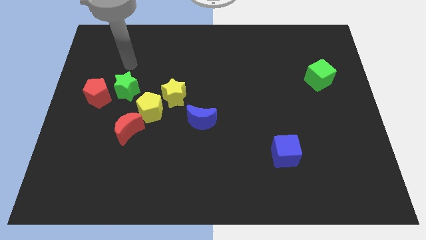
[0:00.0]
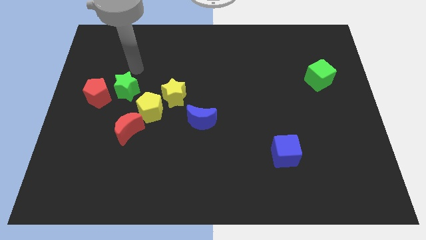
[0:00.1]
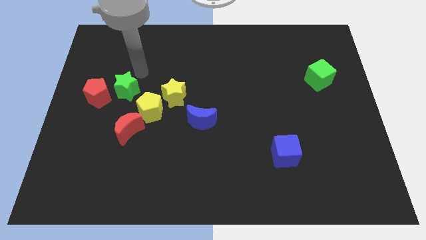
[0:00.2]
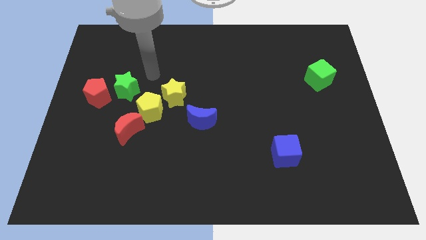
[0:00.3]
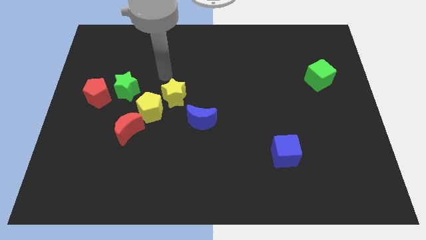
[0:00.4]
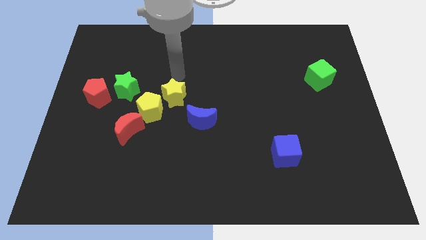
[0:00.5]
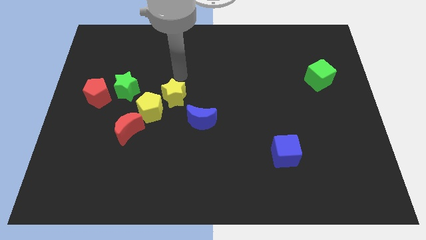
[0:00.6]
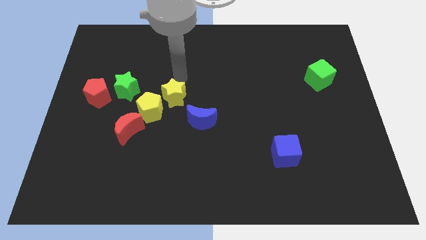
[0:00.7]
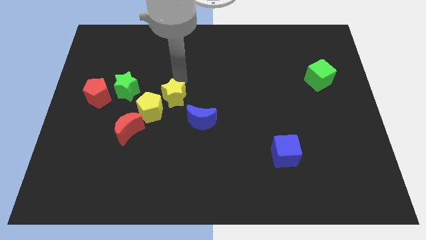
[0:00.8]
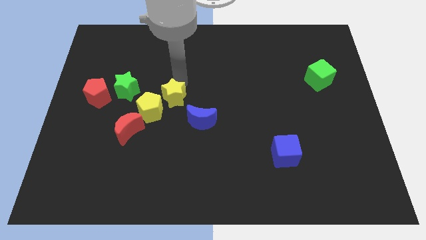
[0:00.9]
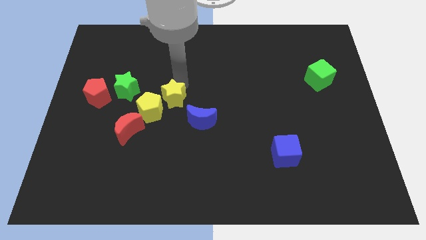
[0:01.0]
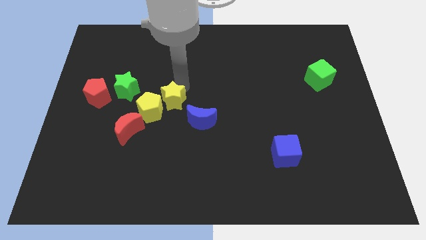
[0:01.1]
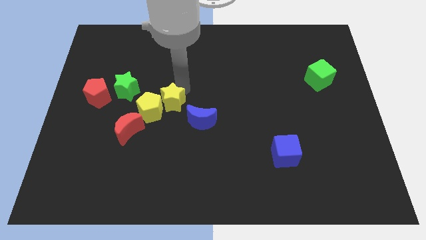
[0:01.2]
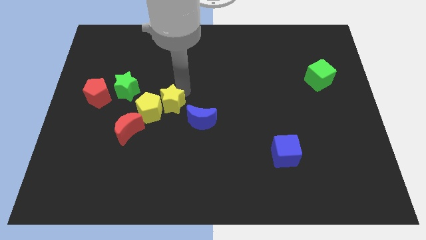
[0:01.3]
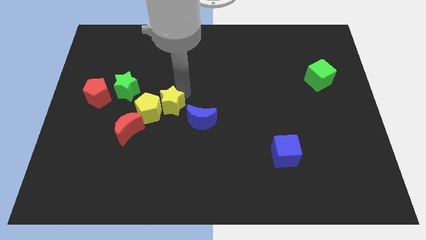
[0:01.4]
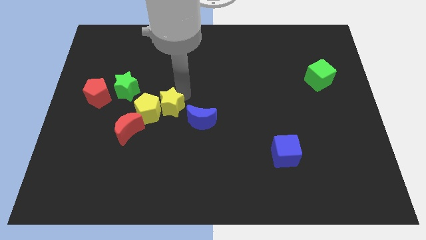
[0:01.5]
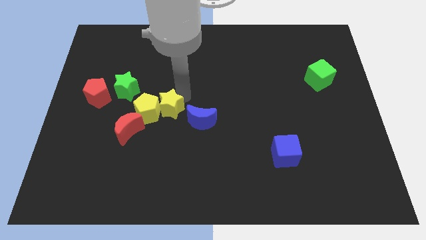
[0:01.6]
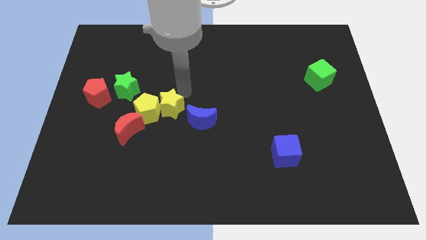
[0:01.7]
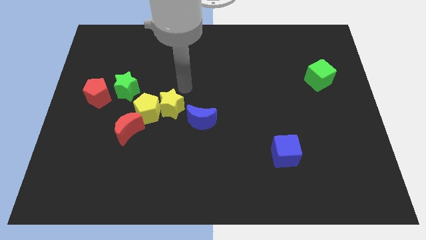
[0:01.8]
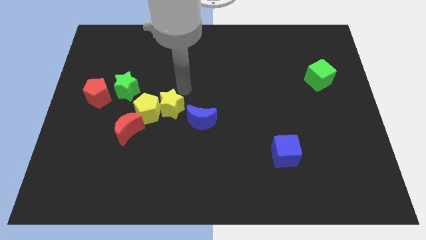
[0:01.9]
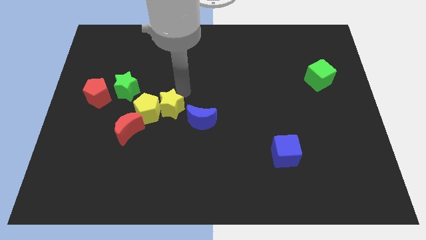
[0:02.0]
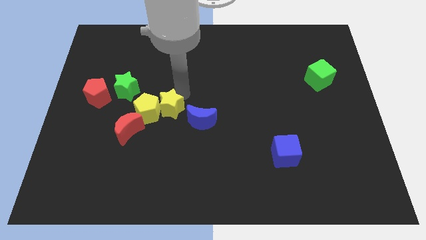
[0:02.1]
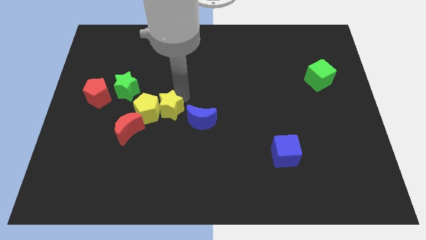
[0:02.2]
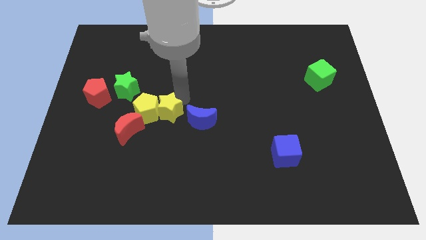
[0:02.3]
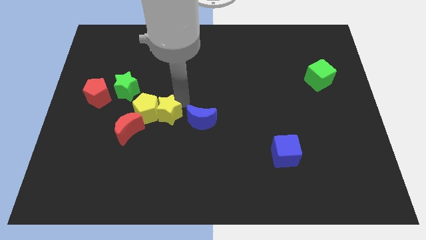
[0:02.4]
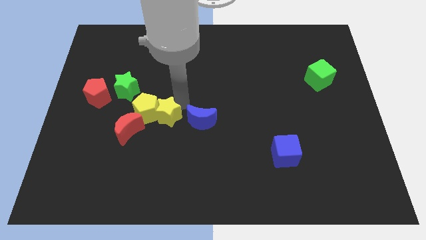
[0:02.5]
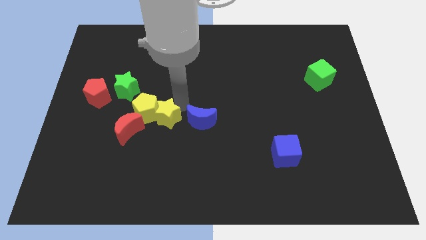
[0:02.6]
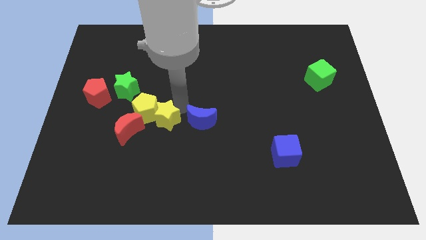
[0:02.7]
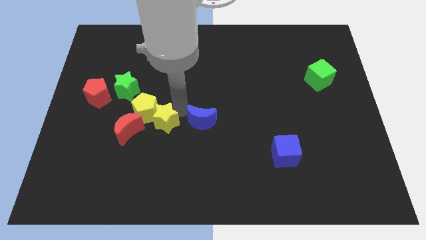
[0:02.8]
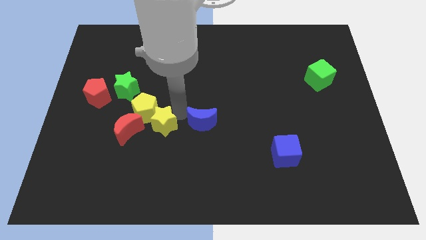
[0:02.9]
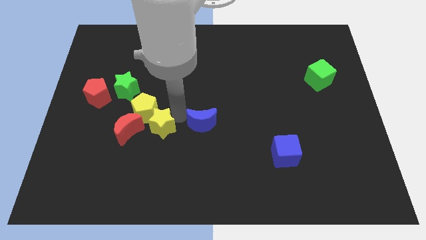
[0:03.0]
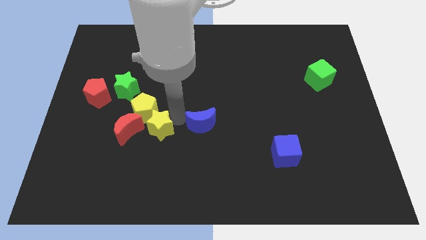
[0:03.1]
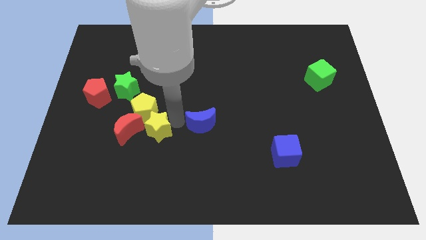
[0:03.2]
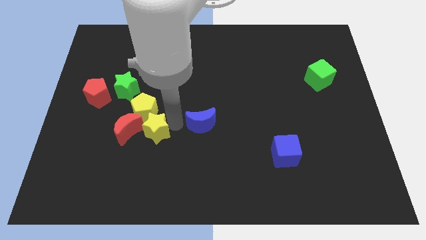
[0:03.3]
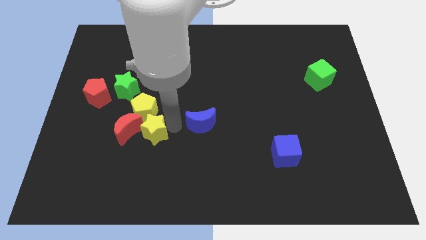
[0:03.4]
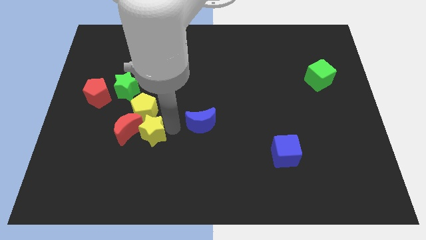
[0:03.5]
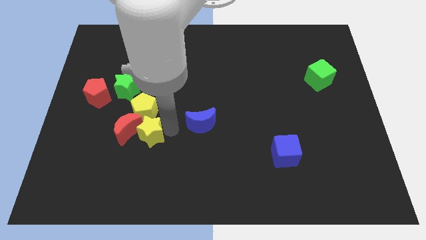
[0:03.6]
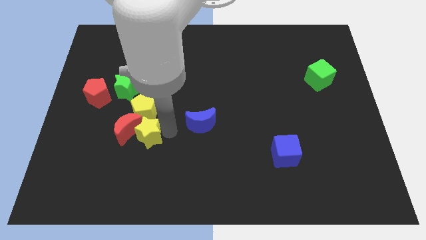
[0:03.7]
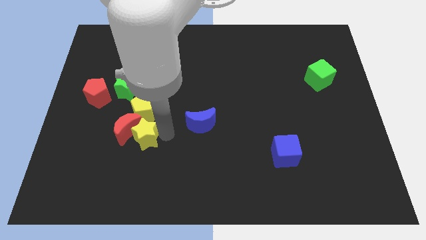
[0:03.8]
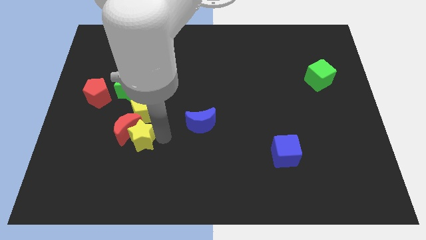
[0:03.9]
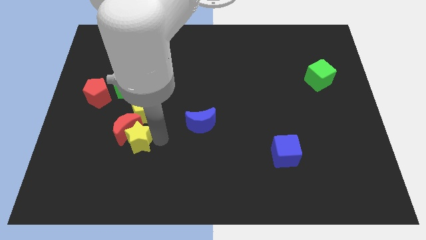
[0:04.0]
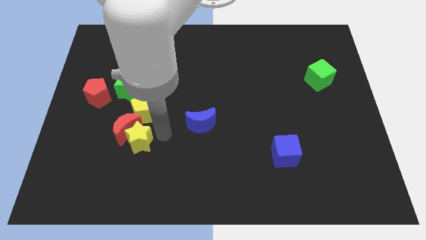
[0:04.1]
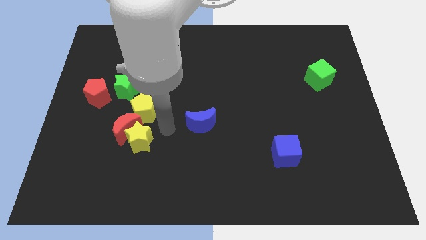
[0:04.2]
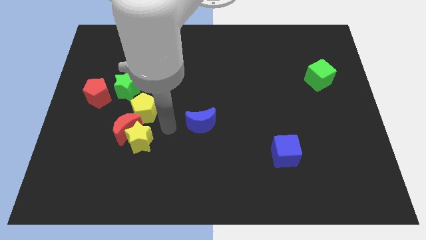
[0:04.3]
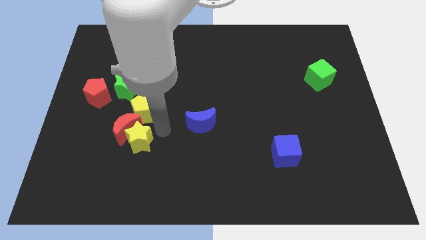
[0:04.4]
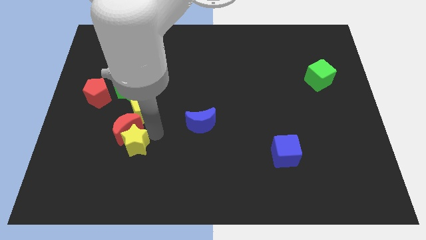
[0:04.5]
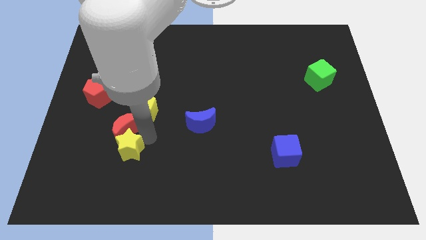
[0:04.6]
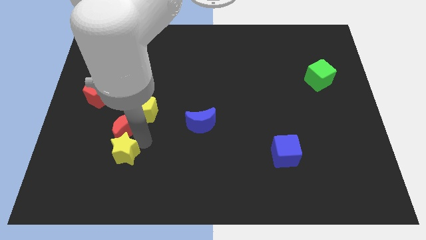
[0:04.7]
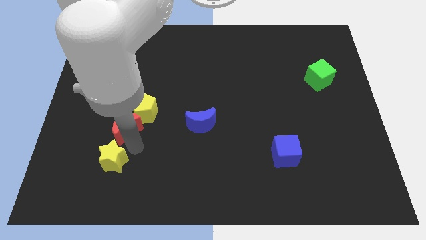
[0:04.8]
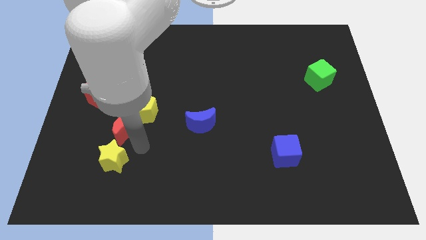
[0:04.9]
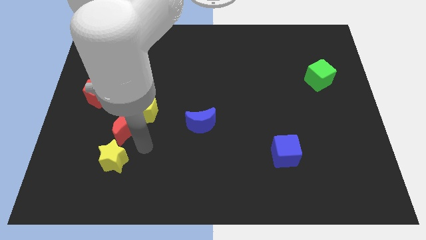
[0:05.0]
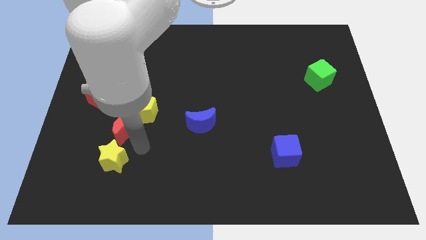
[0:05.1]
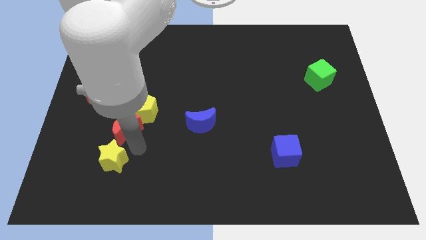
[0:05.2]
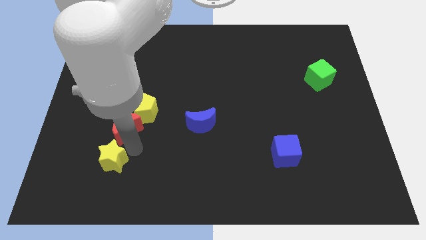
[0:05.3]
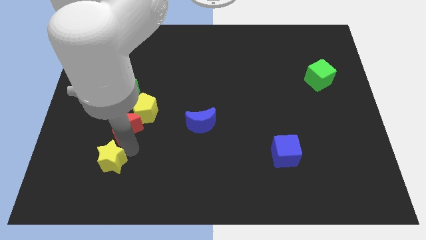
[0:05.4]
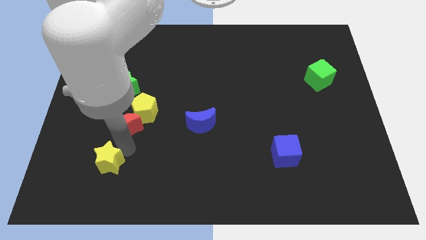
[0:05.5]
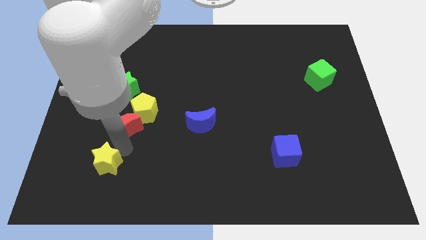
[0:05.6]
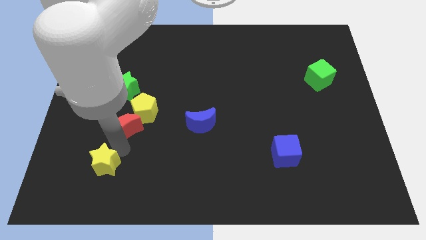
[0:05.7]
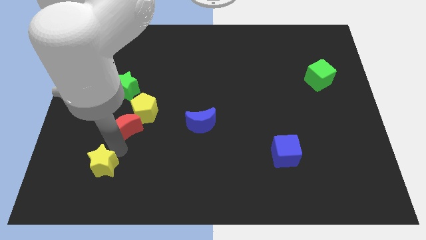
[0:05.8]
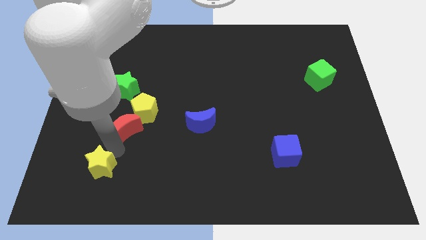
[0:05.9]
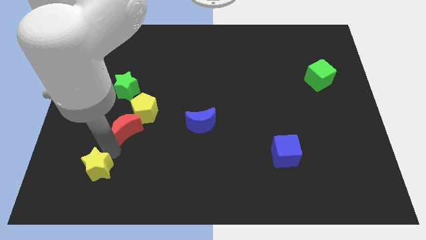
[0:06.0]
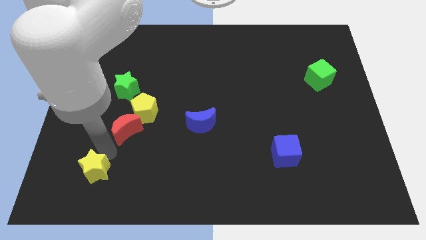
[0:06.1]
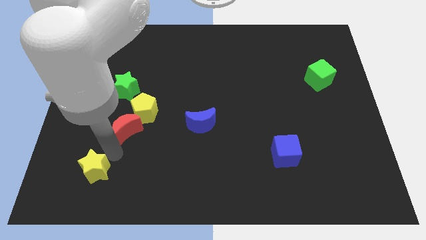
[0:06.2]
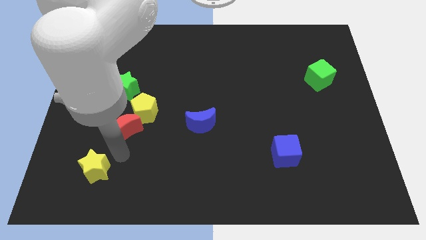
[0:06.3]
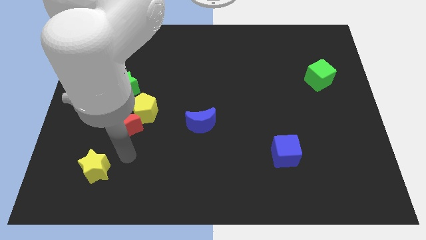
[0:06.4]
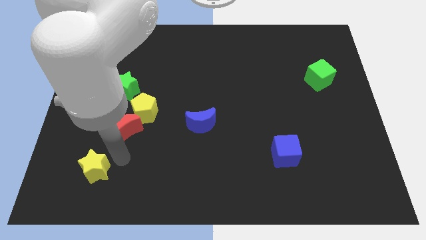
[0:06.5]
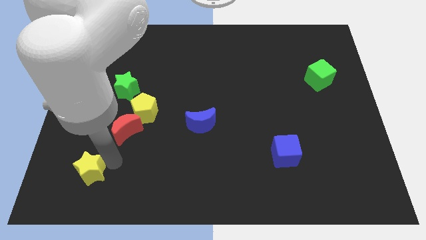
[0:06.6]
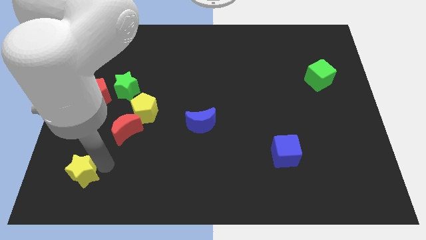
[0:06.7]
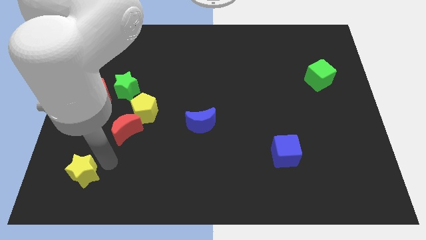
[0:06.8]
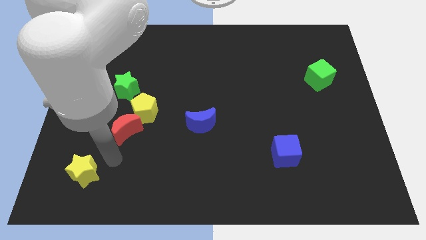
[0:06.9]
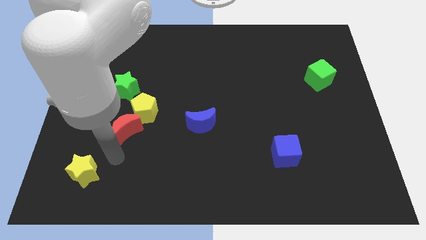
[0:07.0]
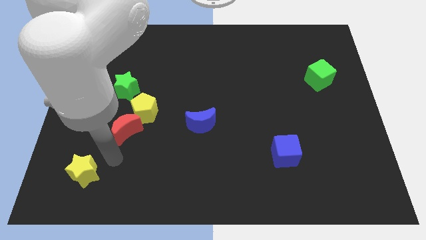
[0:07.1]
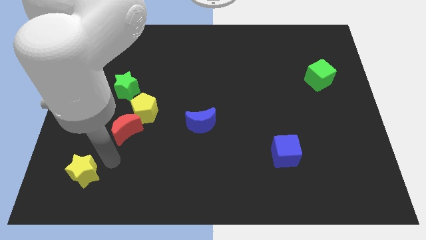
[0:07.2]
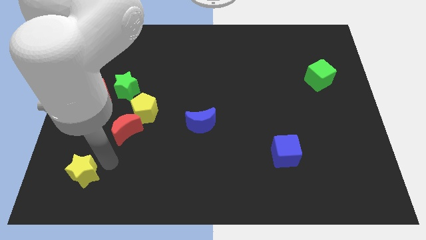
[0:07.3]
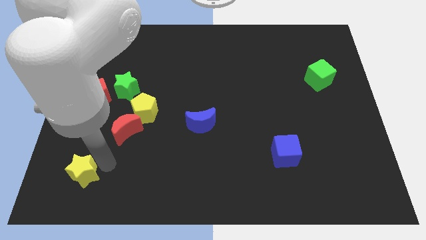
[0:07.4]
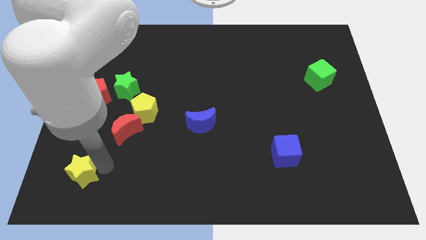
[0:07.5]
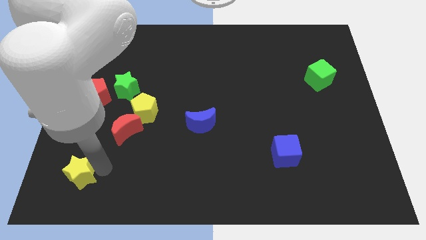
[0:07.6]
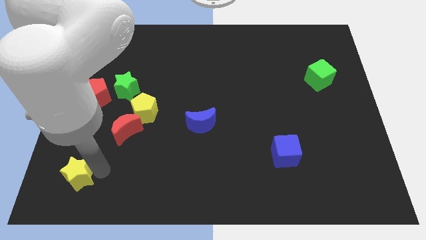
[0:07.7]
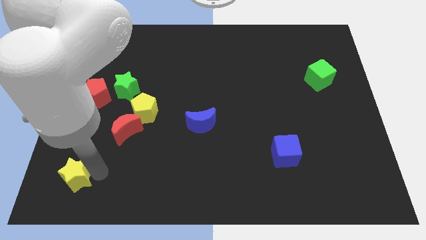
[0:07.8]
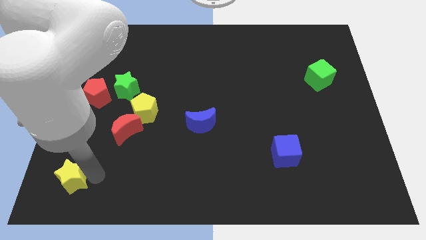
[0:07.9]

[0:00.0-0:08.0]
put the yellow star to the lower left corner
